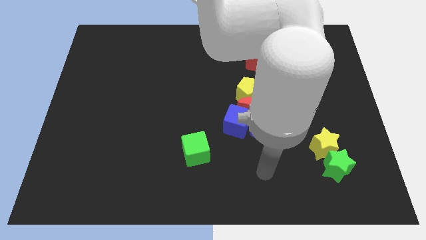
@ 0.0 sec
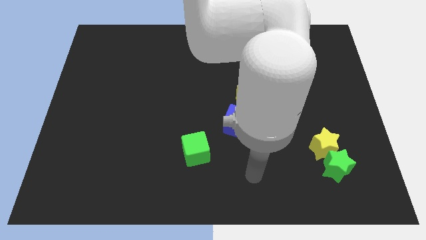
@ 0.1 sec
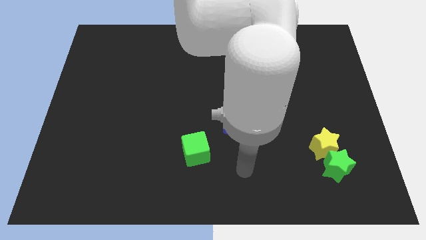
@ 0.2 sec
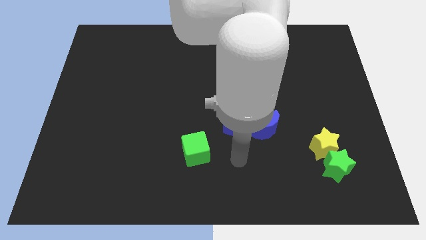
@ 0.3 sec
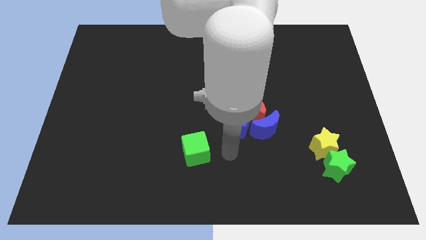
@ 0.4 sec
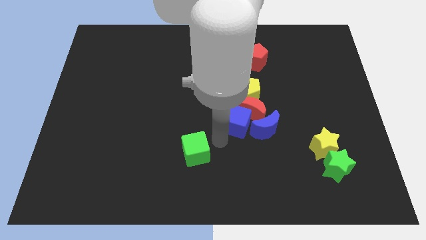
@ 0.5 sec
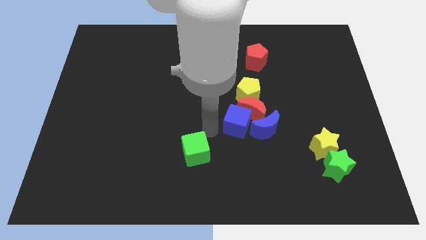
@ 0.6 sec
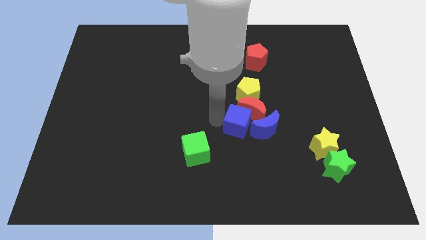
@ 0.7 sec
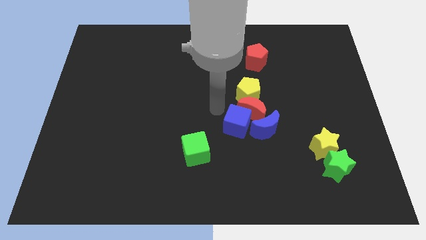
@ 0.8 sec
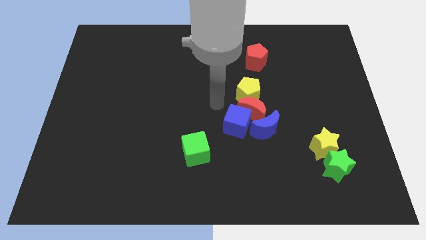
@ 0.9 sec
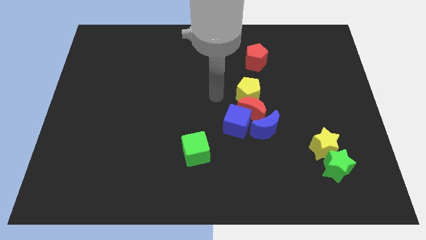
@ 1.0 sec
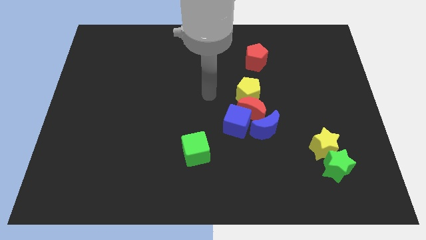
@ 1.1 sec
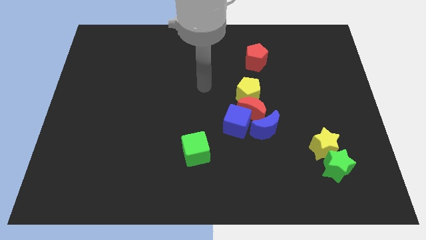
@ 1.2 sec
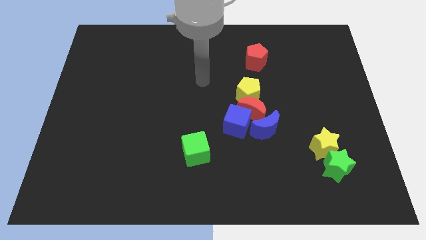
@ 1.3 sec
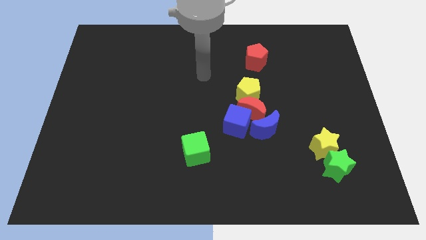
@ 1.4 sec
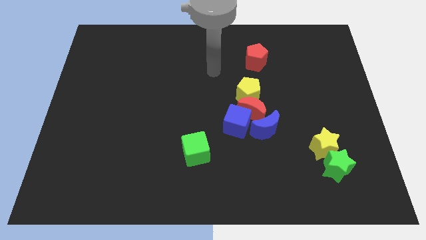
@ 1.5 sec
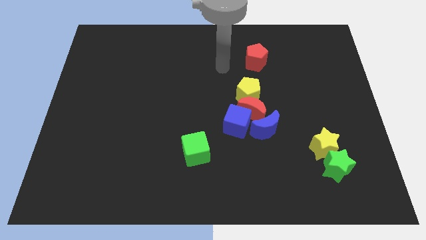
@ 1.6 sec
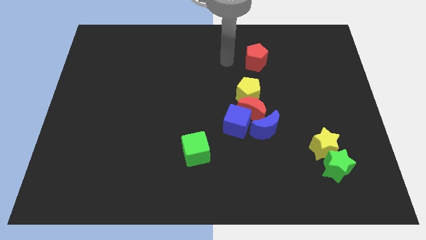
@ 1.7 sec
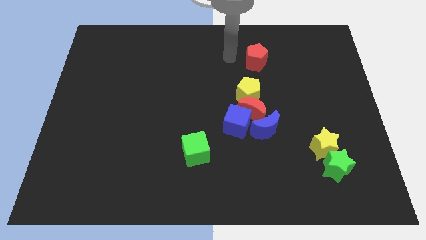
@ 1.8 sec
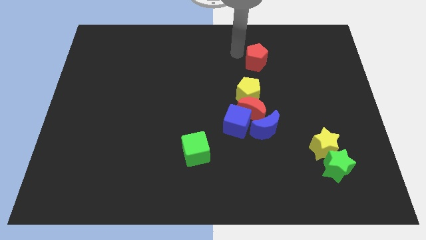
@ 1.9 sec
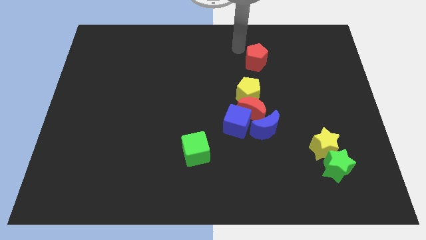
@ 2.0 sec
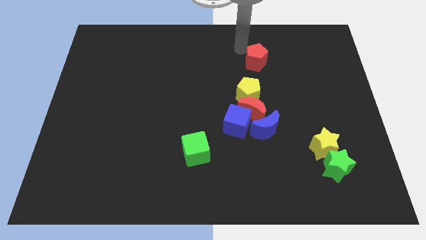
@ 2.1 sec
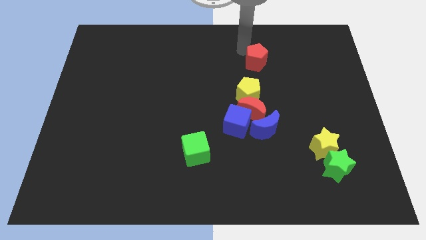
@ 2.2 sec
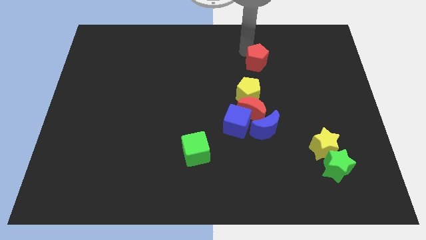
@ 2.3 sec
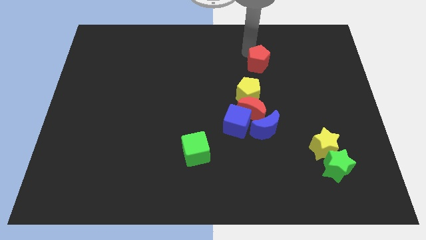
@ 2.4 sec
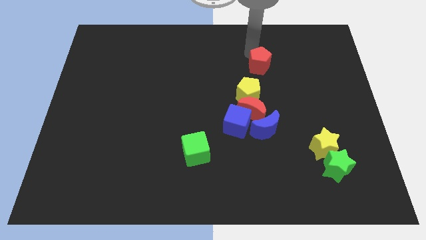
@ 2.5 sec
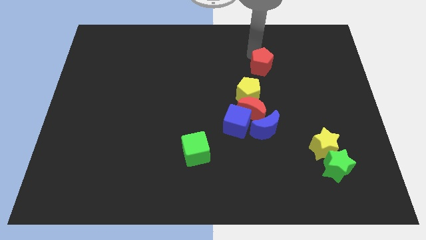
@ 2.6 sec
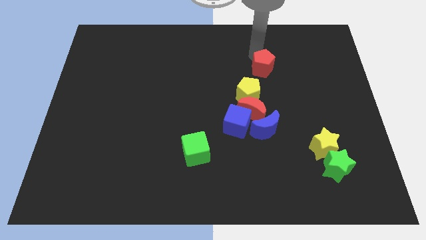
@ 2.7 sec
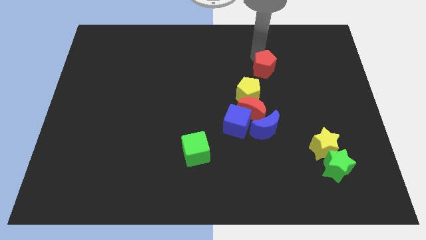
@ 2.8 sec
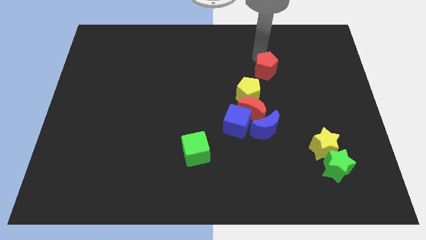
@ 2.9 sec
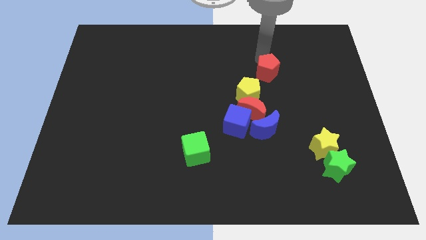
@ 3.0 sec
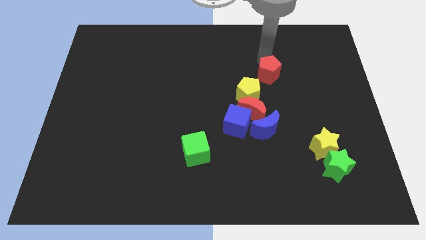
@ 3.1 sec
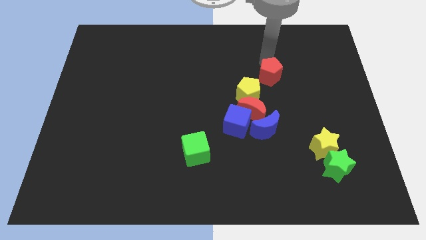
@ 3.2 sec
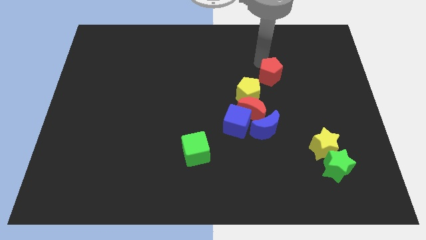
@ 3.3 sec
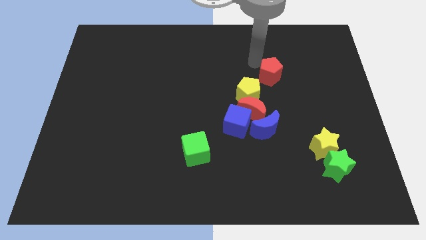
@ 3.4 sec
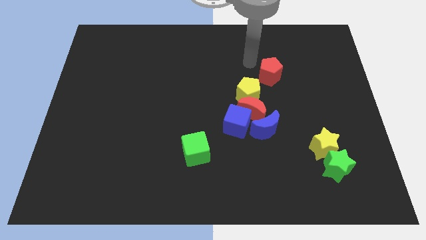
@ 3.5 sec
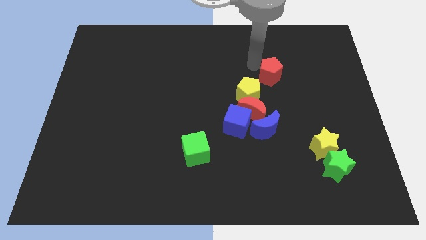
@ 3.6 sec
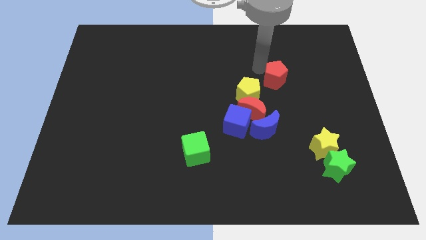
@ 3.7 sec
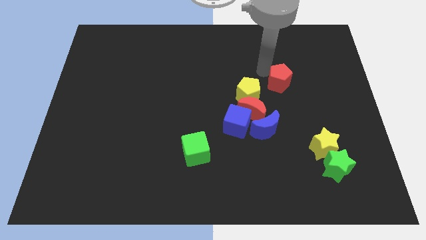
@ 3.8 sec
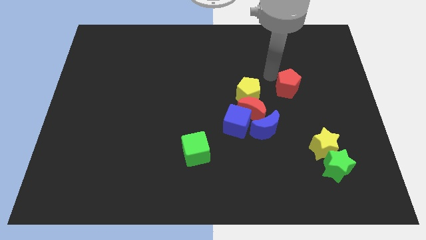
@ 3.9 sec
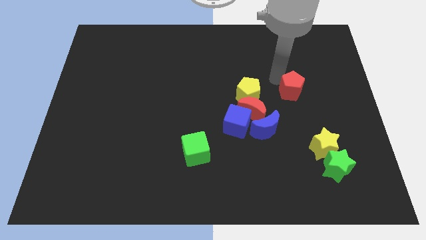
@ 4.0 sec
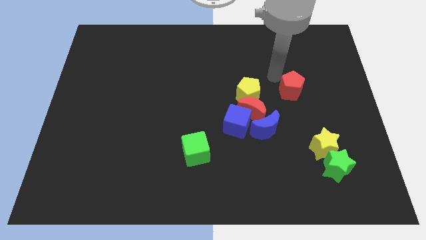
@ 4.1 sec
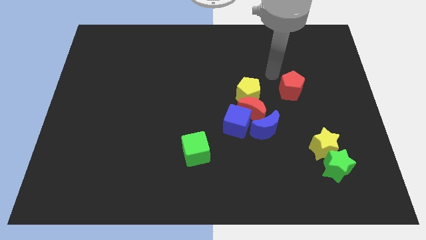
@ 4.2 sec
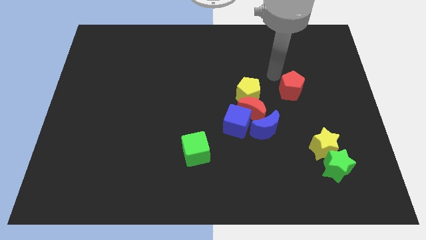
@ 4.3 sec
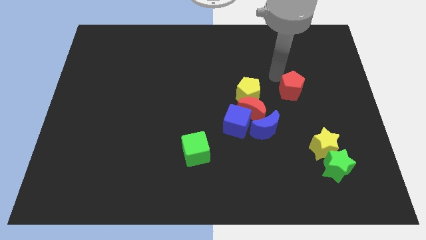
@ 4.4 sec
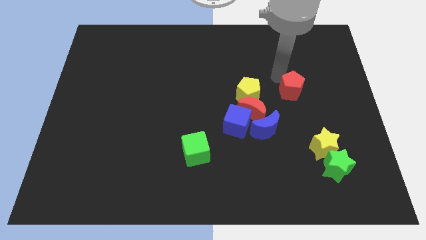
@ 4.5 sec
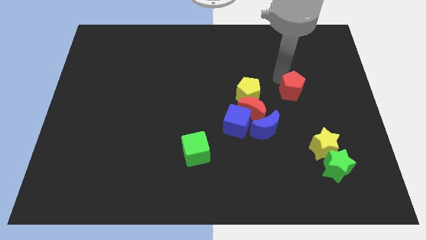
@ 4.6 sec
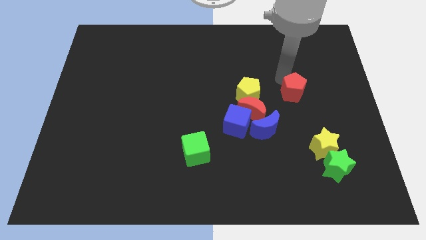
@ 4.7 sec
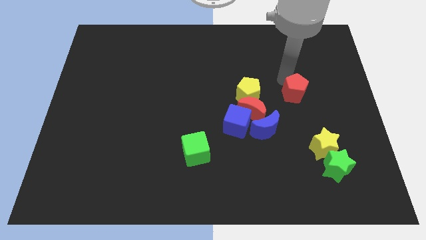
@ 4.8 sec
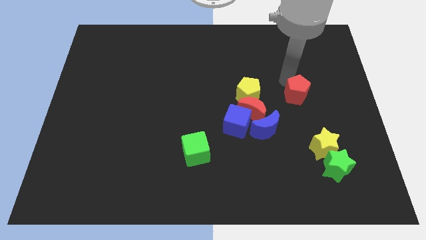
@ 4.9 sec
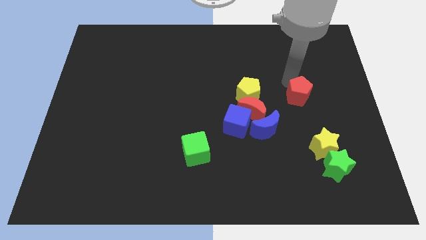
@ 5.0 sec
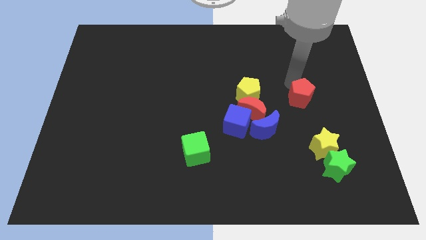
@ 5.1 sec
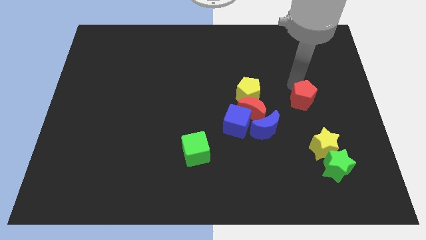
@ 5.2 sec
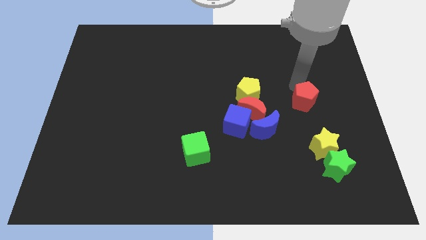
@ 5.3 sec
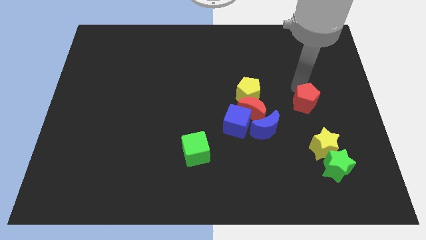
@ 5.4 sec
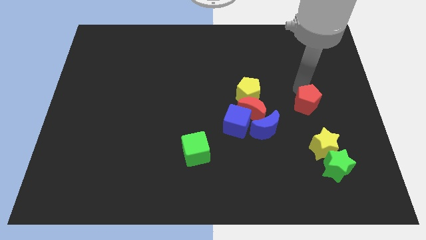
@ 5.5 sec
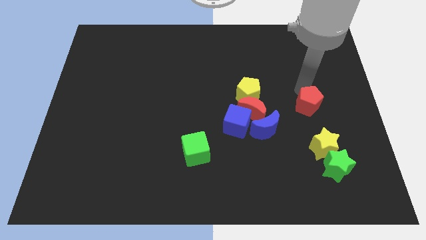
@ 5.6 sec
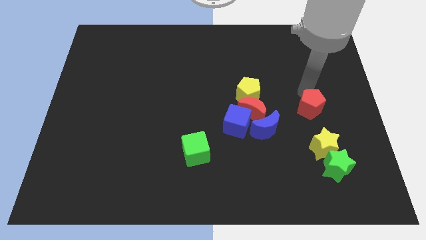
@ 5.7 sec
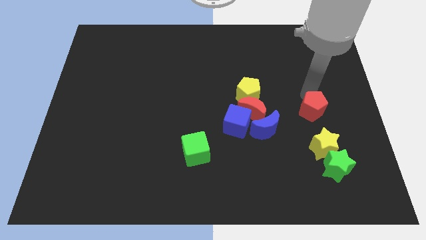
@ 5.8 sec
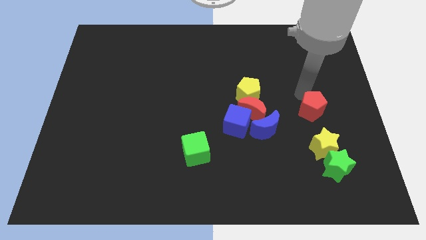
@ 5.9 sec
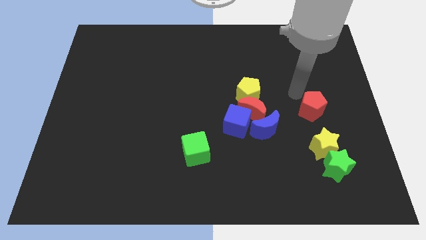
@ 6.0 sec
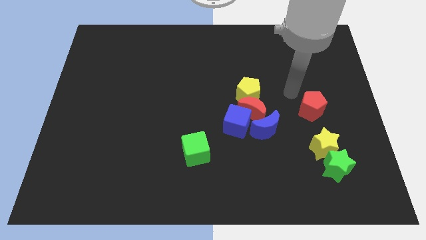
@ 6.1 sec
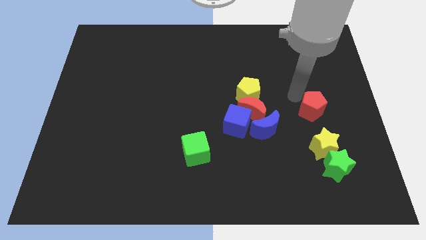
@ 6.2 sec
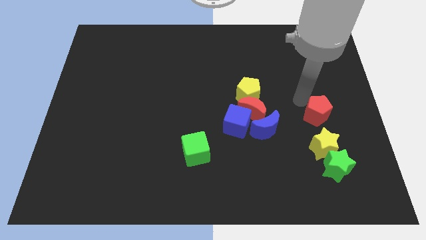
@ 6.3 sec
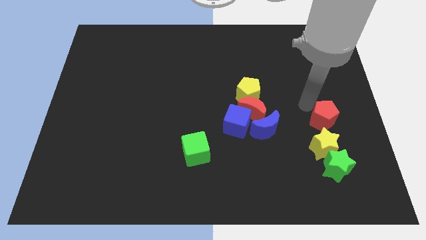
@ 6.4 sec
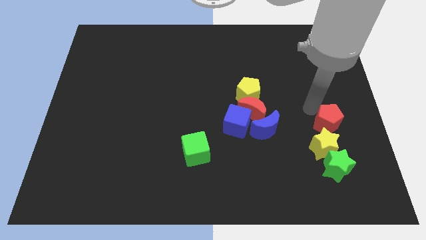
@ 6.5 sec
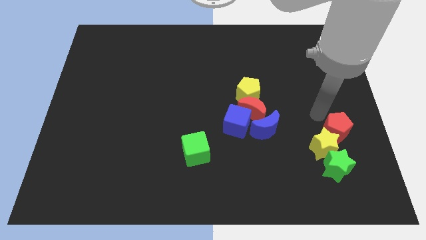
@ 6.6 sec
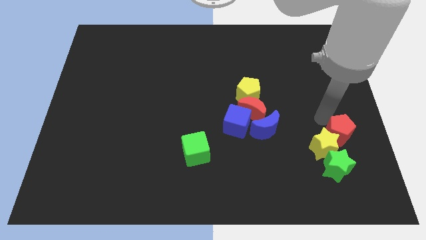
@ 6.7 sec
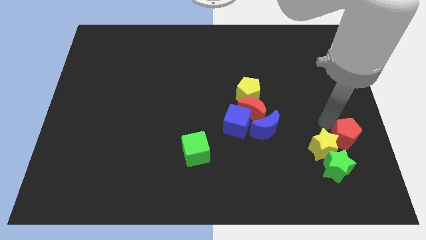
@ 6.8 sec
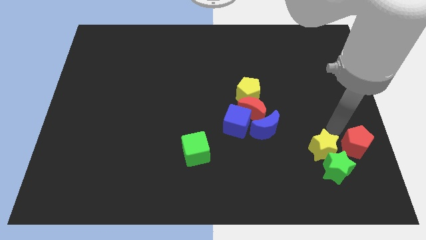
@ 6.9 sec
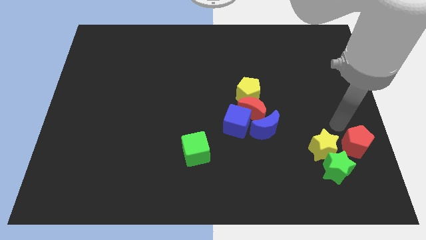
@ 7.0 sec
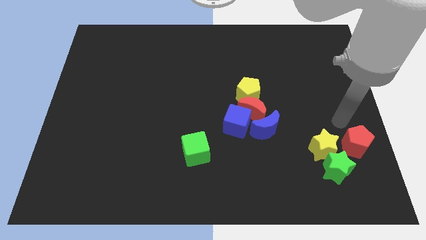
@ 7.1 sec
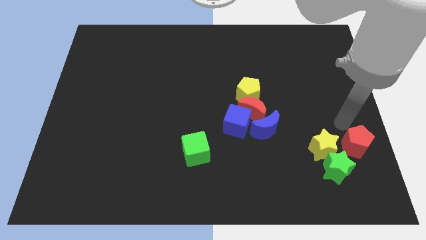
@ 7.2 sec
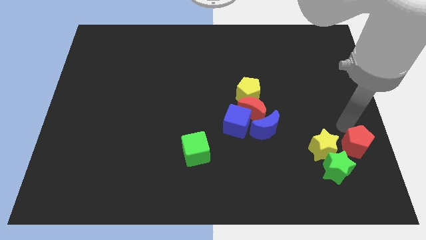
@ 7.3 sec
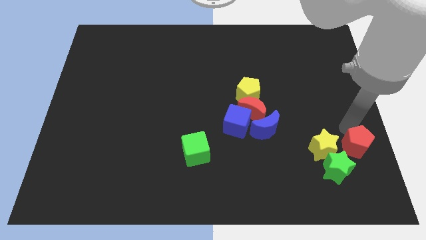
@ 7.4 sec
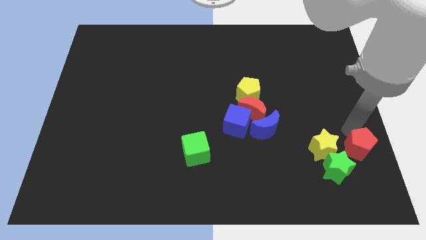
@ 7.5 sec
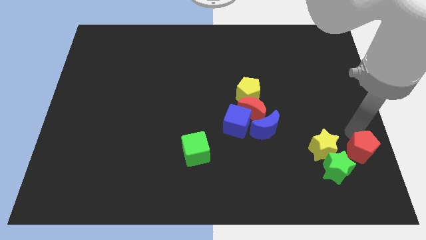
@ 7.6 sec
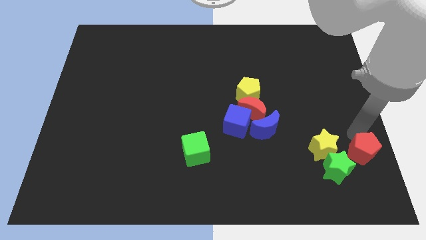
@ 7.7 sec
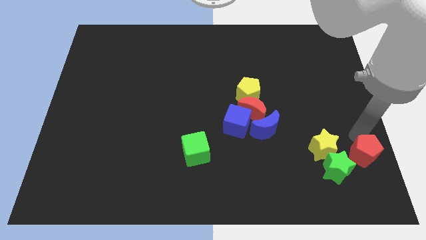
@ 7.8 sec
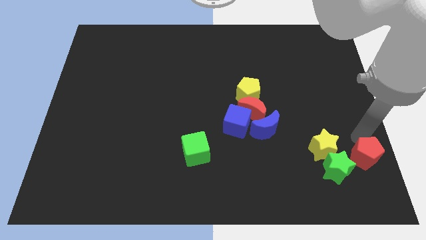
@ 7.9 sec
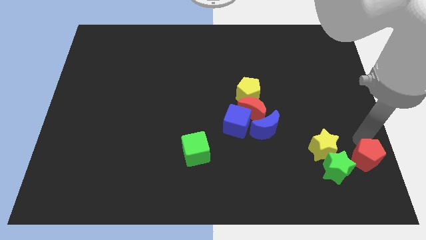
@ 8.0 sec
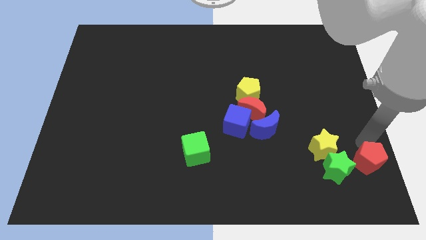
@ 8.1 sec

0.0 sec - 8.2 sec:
put the red pentagon to the bottom right
